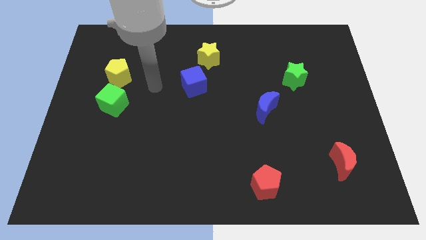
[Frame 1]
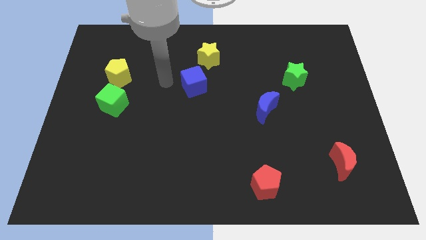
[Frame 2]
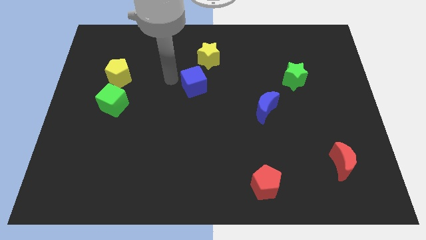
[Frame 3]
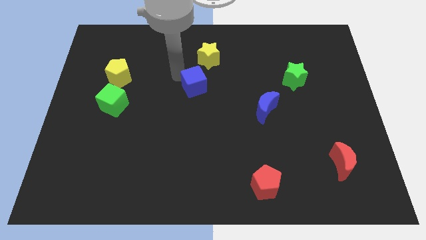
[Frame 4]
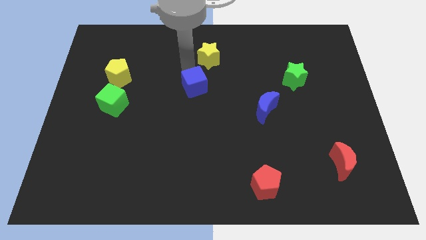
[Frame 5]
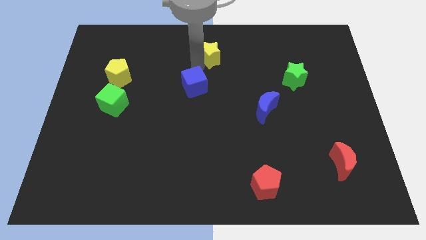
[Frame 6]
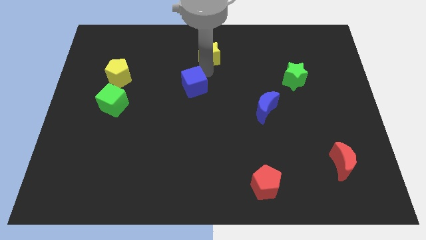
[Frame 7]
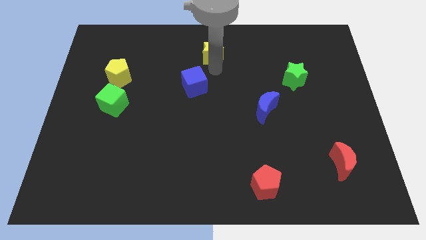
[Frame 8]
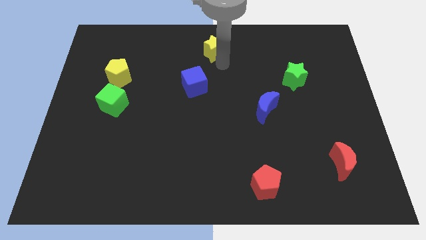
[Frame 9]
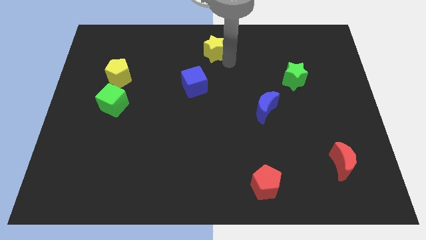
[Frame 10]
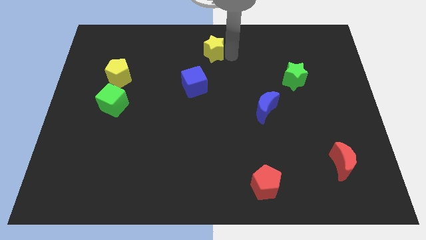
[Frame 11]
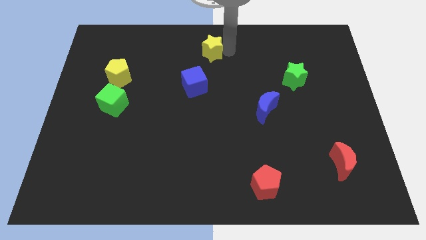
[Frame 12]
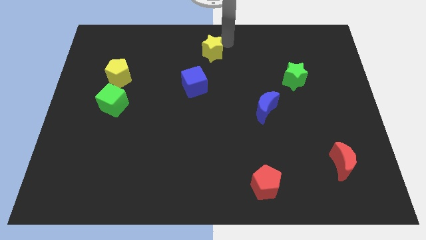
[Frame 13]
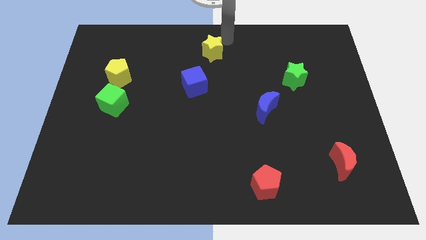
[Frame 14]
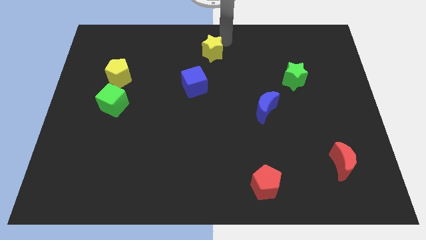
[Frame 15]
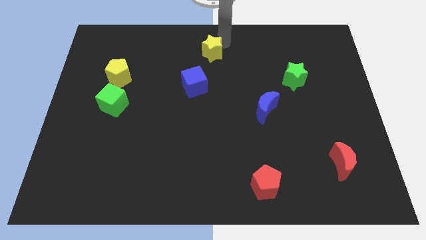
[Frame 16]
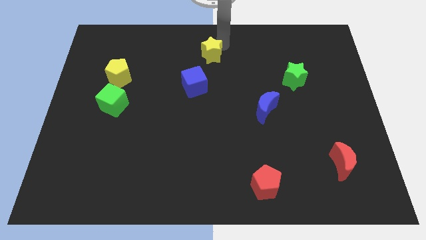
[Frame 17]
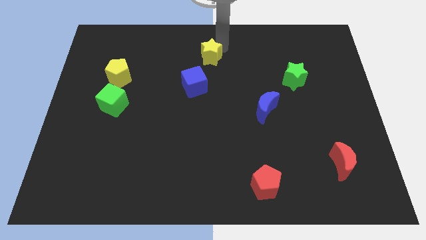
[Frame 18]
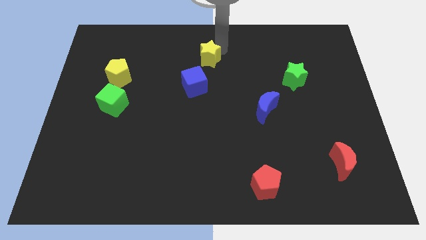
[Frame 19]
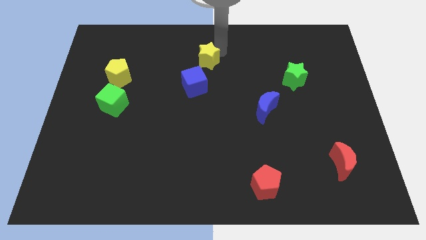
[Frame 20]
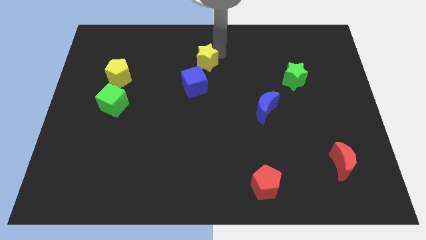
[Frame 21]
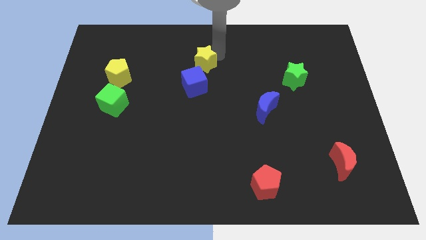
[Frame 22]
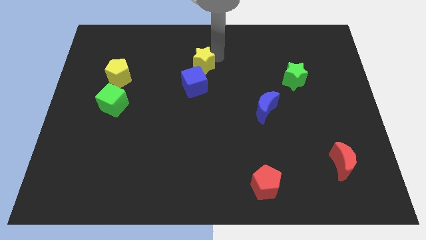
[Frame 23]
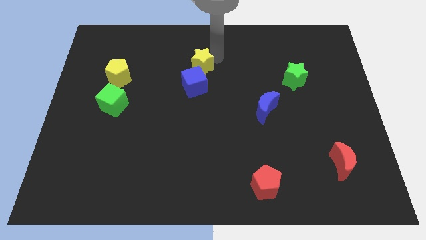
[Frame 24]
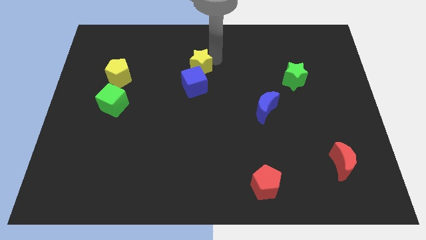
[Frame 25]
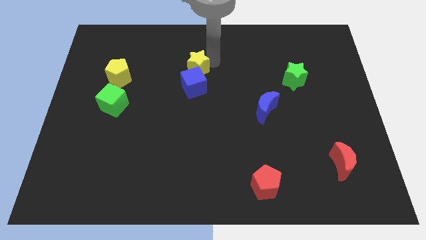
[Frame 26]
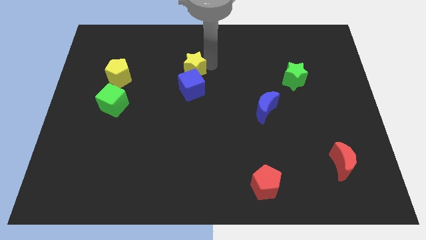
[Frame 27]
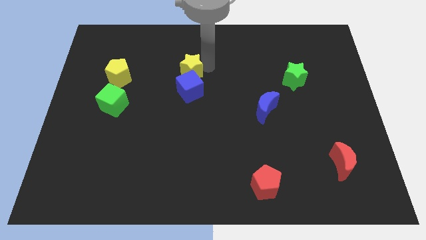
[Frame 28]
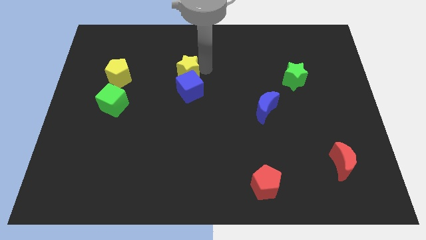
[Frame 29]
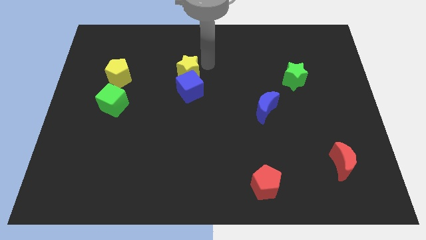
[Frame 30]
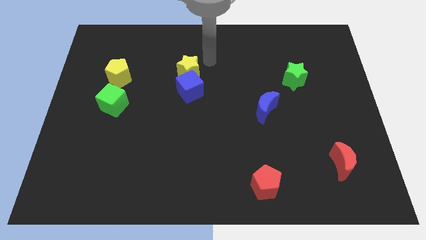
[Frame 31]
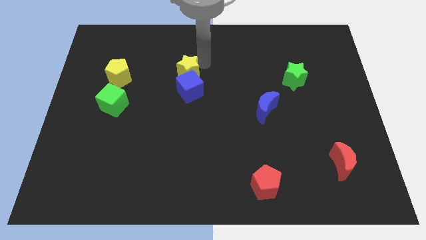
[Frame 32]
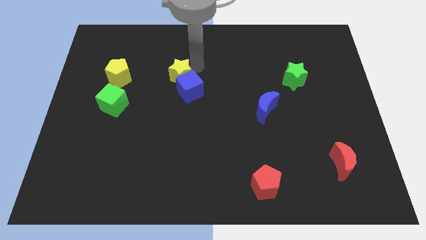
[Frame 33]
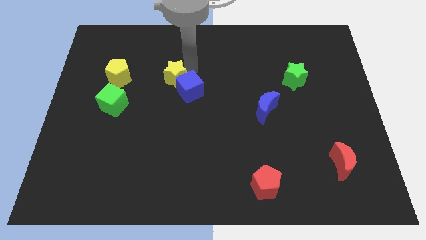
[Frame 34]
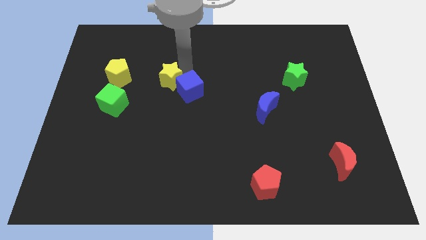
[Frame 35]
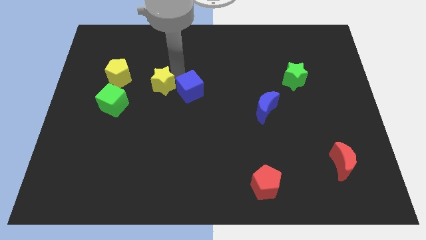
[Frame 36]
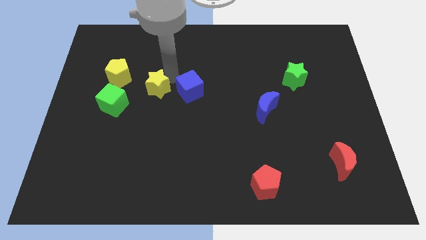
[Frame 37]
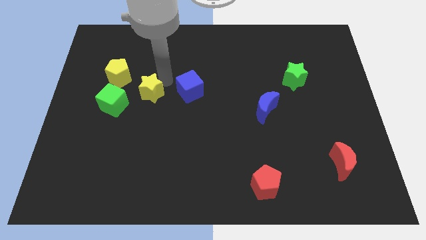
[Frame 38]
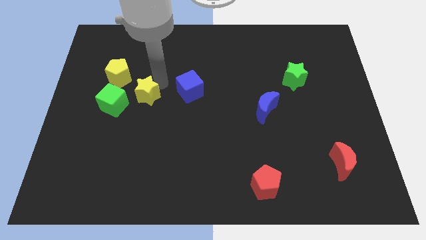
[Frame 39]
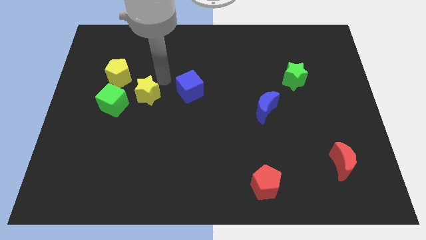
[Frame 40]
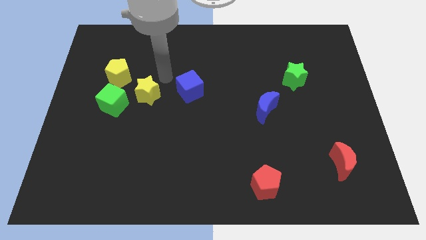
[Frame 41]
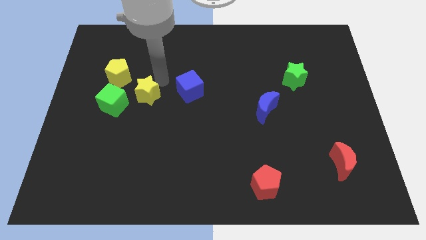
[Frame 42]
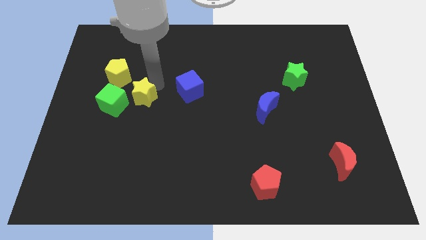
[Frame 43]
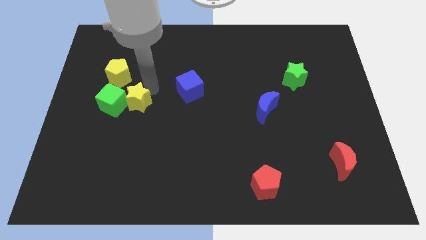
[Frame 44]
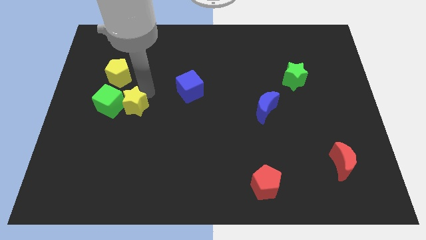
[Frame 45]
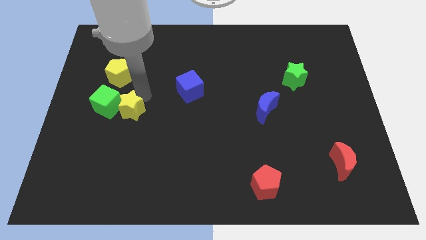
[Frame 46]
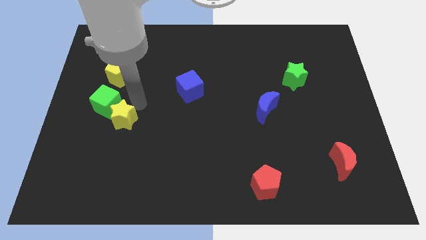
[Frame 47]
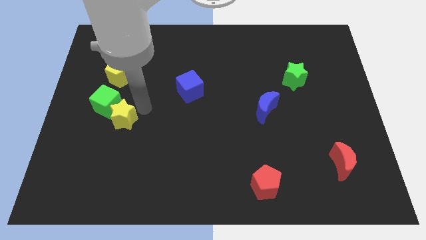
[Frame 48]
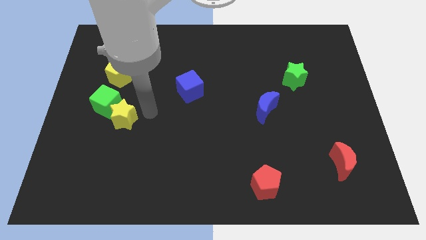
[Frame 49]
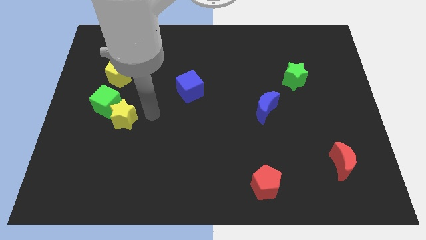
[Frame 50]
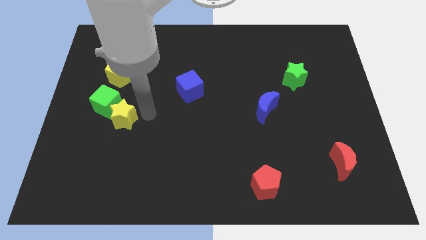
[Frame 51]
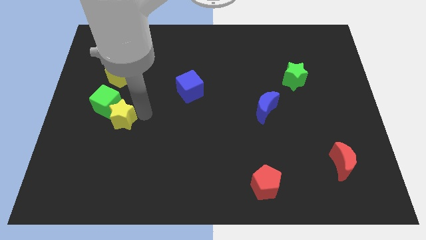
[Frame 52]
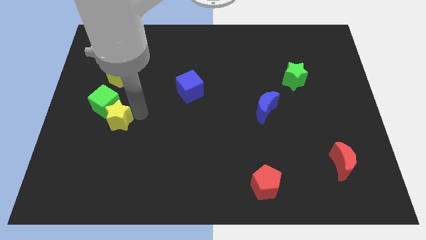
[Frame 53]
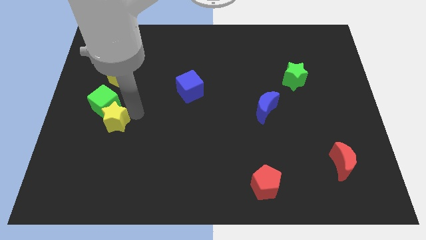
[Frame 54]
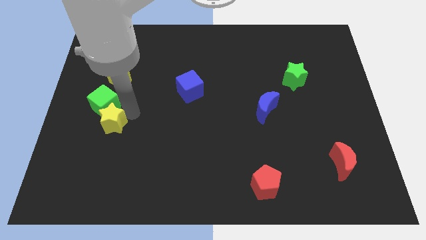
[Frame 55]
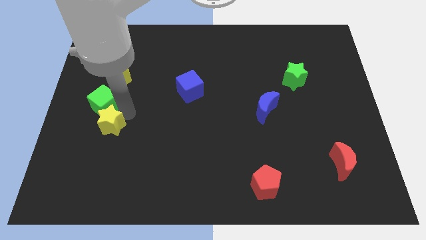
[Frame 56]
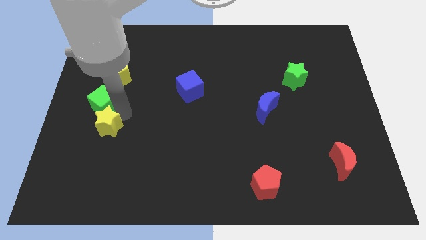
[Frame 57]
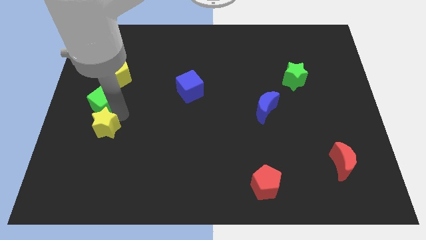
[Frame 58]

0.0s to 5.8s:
push the yellow star diagonally down and to the left of the green cube

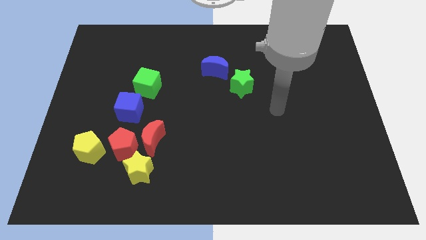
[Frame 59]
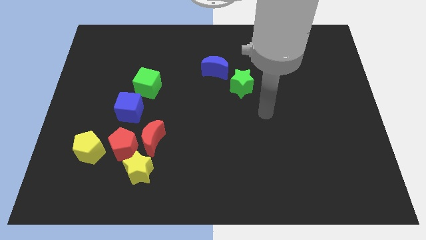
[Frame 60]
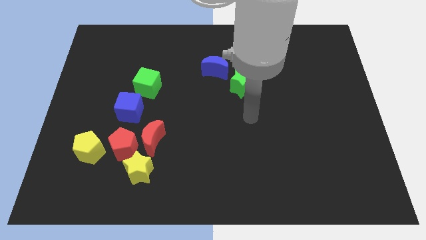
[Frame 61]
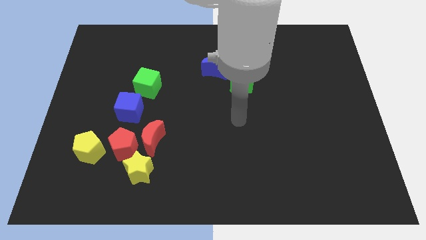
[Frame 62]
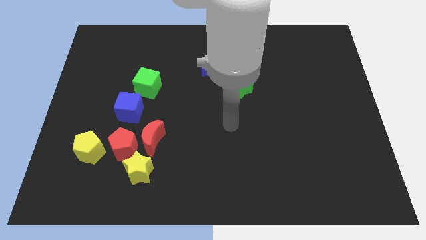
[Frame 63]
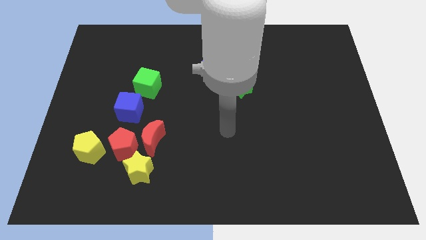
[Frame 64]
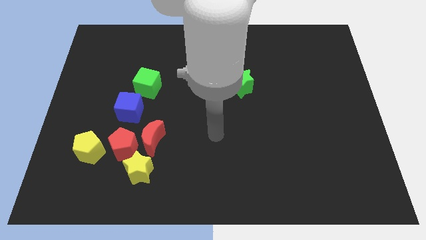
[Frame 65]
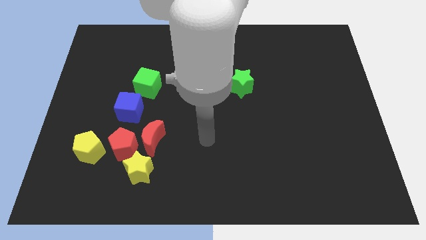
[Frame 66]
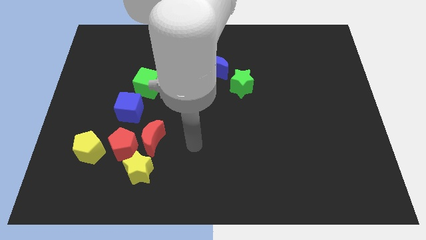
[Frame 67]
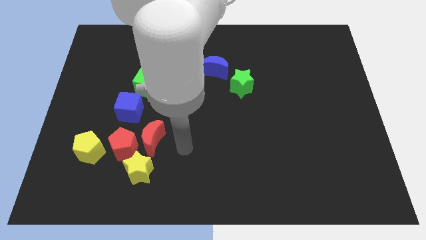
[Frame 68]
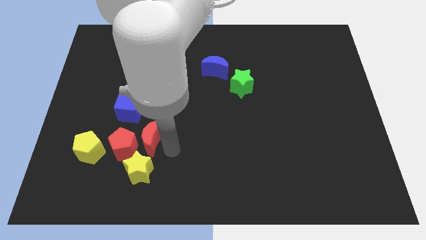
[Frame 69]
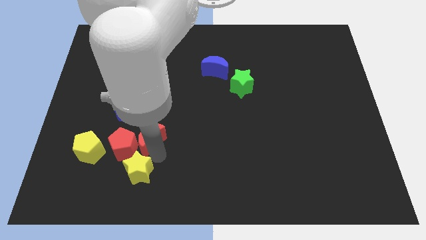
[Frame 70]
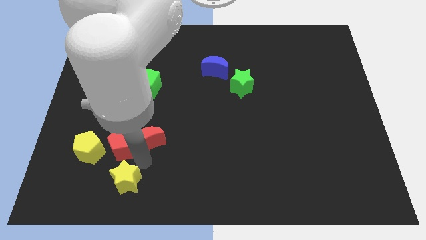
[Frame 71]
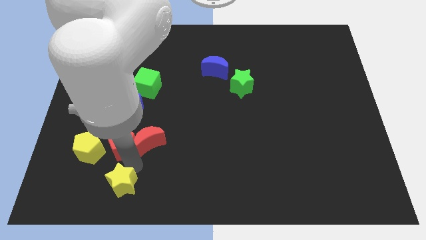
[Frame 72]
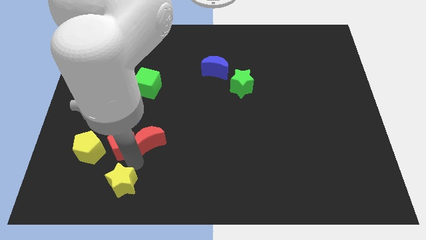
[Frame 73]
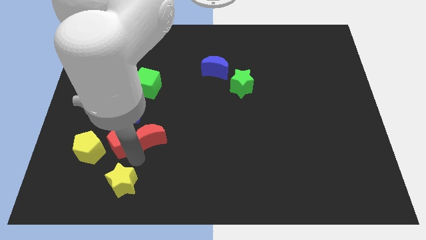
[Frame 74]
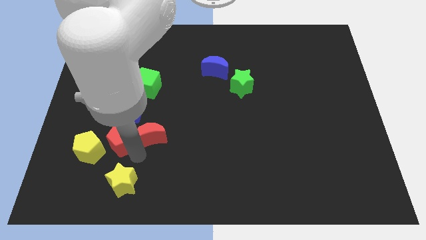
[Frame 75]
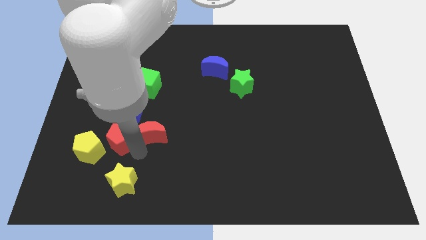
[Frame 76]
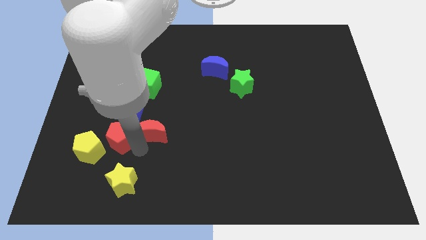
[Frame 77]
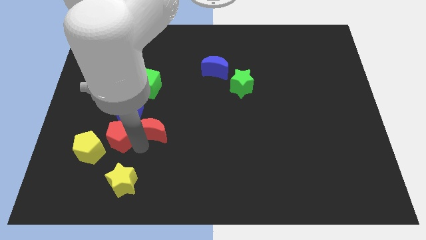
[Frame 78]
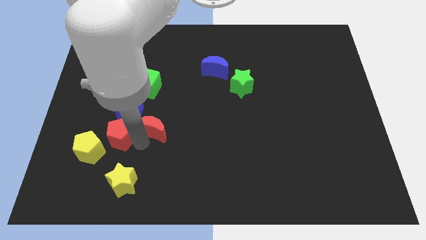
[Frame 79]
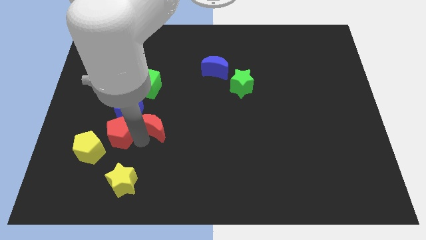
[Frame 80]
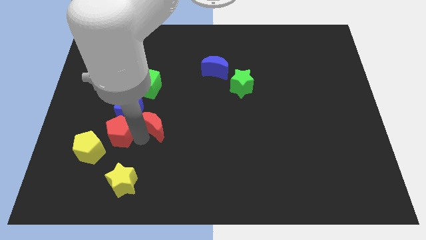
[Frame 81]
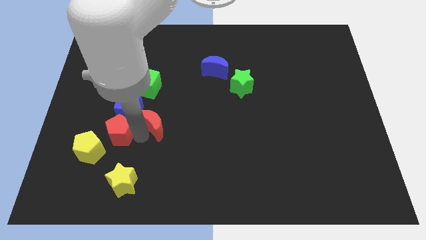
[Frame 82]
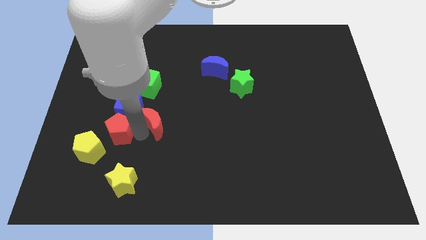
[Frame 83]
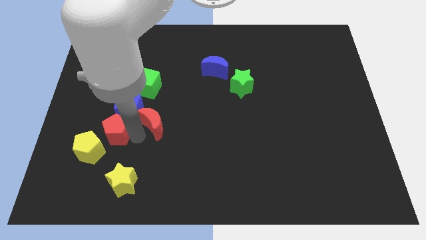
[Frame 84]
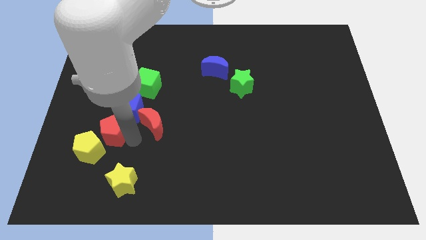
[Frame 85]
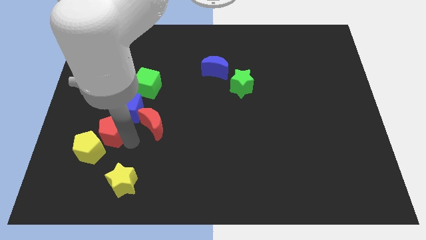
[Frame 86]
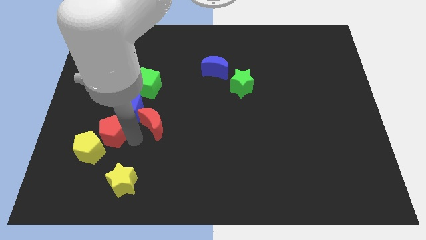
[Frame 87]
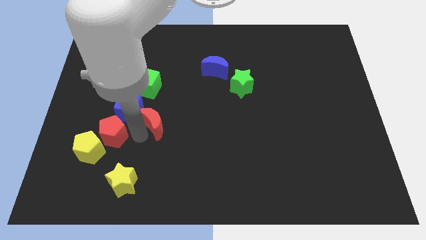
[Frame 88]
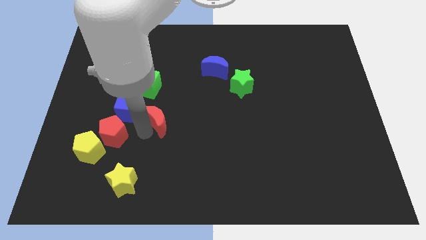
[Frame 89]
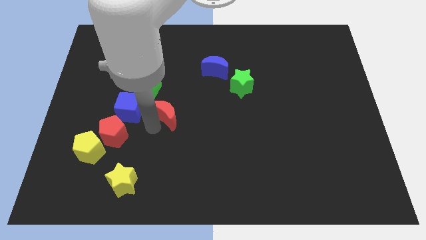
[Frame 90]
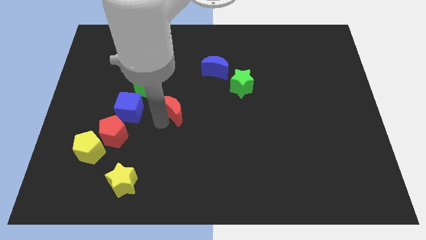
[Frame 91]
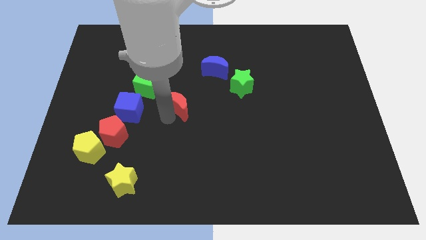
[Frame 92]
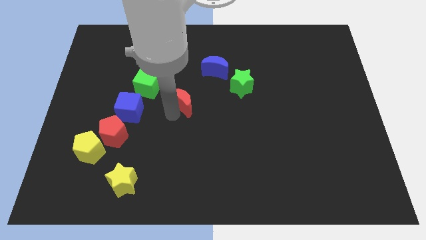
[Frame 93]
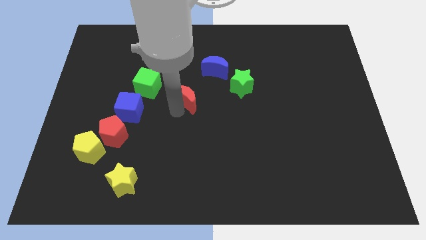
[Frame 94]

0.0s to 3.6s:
move the red moon left of the green star
